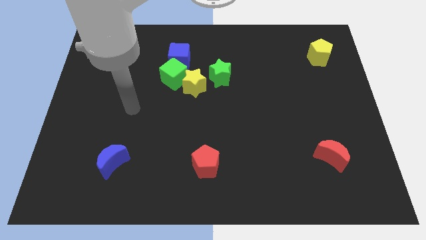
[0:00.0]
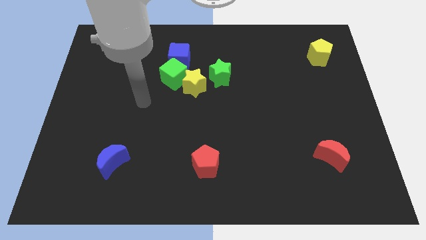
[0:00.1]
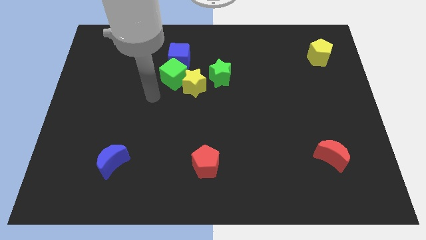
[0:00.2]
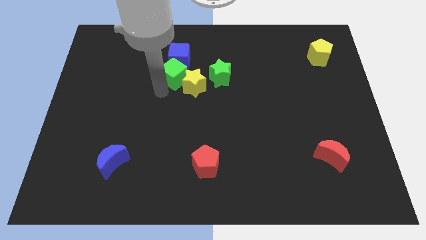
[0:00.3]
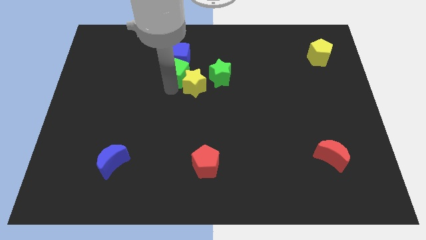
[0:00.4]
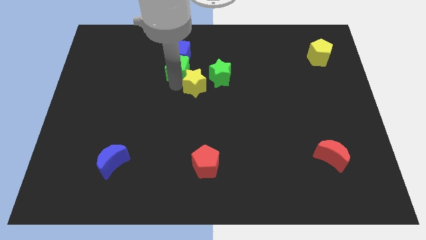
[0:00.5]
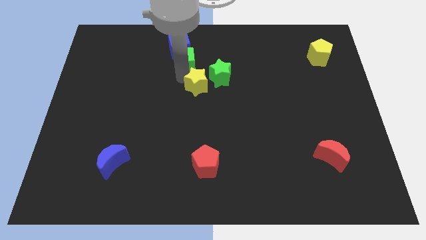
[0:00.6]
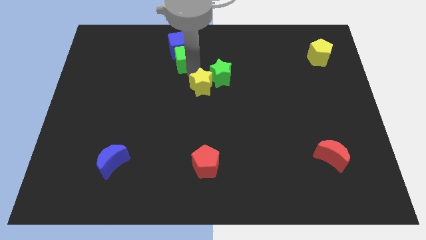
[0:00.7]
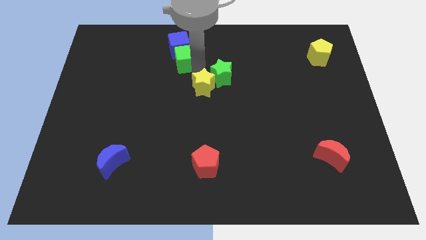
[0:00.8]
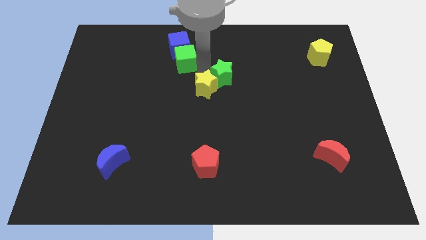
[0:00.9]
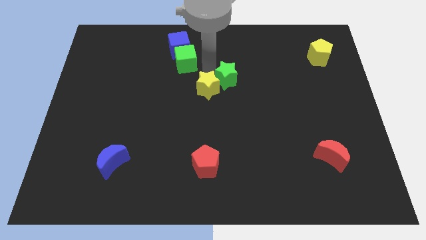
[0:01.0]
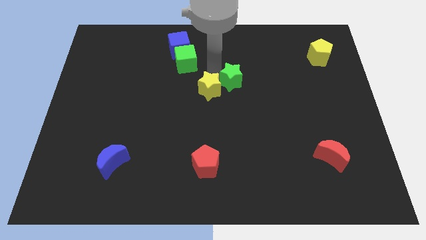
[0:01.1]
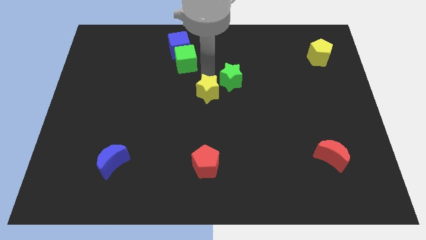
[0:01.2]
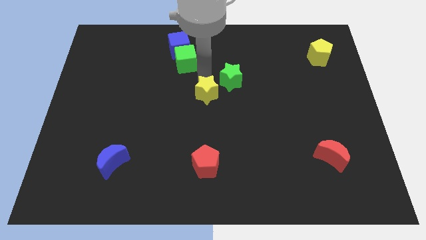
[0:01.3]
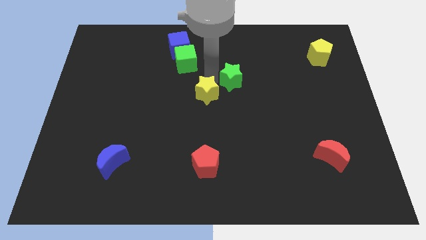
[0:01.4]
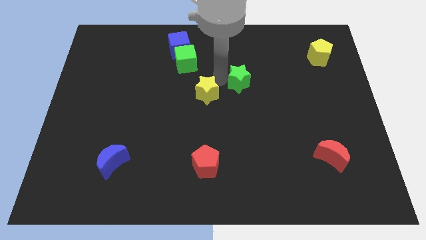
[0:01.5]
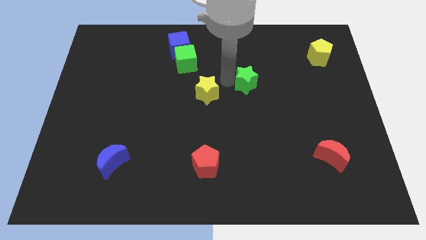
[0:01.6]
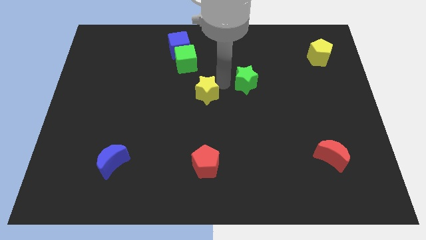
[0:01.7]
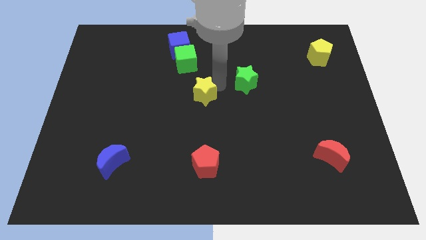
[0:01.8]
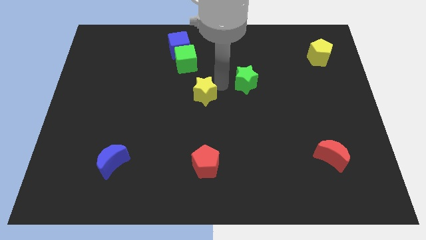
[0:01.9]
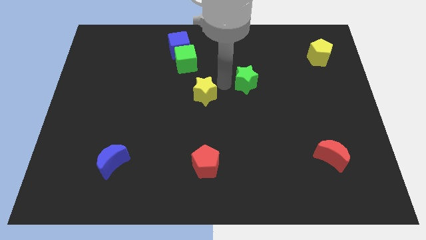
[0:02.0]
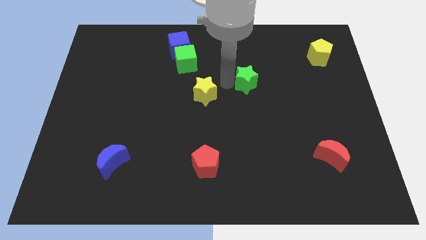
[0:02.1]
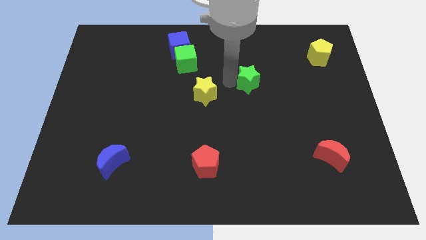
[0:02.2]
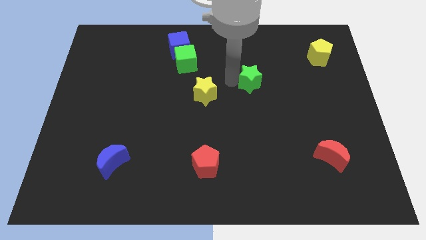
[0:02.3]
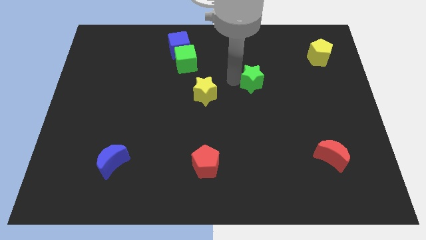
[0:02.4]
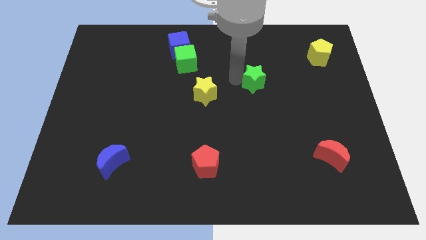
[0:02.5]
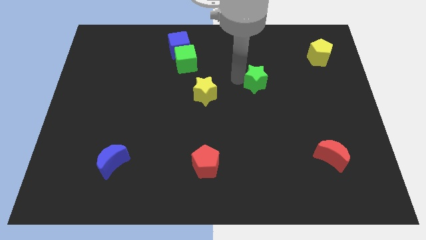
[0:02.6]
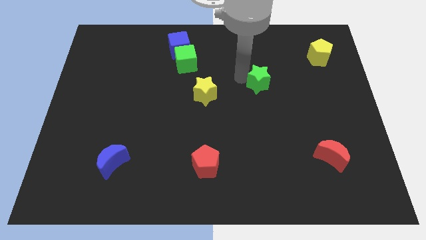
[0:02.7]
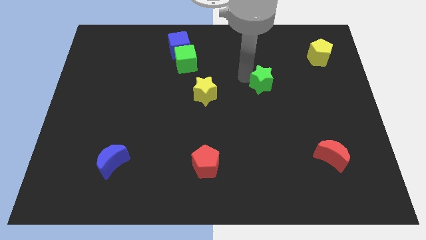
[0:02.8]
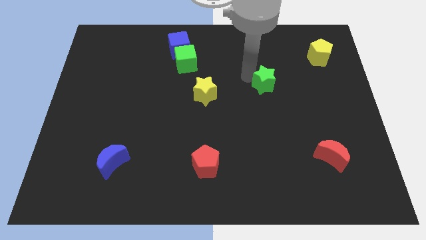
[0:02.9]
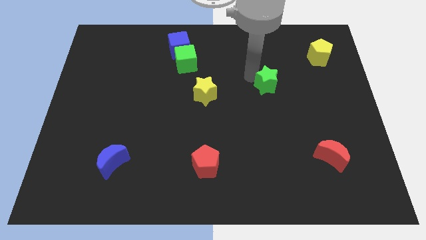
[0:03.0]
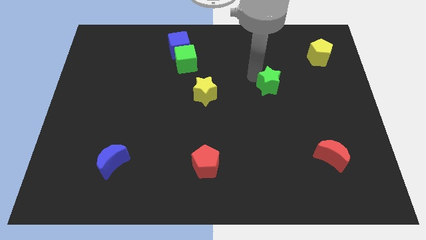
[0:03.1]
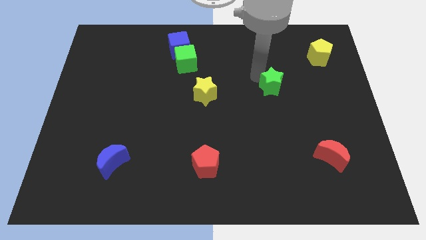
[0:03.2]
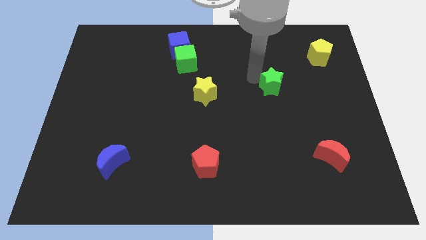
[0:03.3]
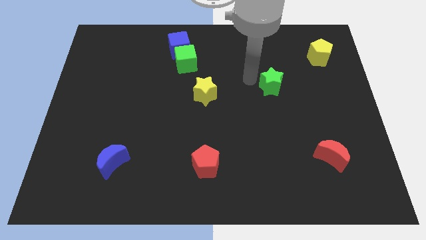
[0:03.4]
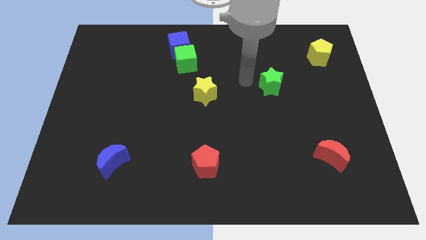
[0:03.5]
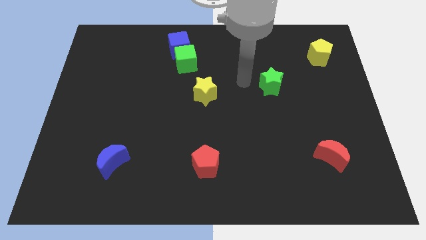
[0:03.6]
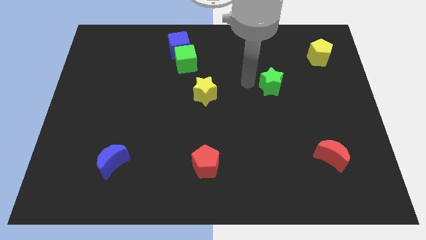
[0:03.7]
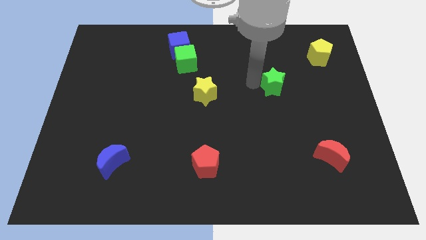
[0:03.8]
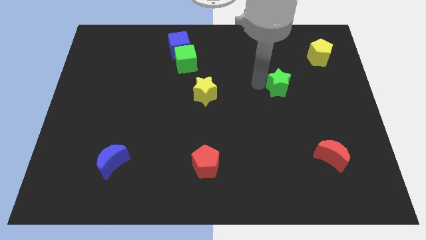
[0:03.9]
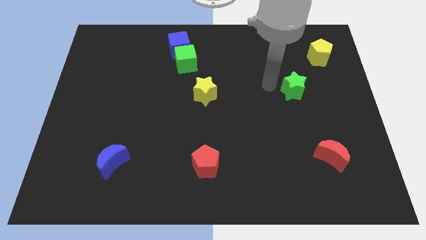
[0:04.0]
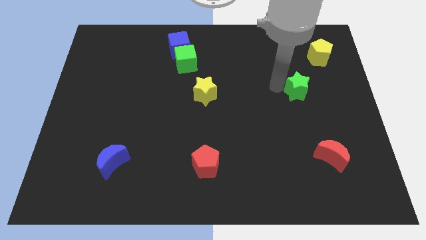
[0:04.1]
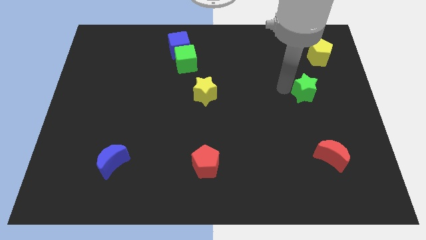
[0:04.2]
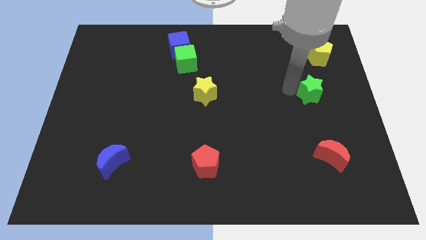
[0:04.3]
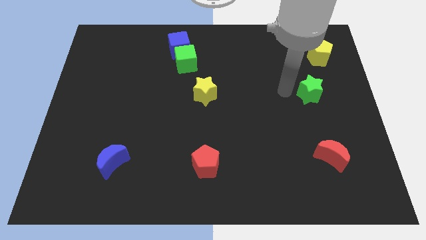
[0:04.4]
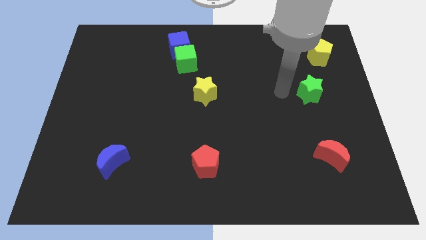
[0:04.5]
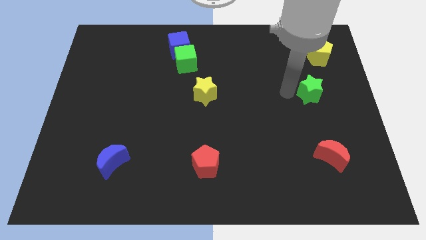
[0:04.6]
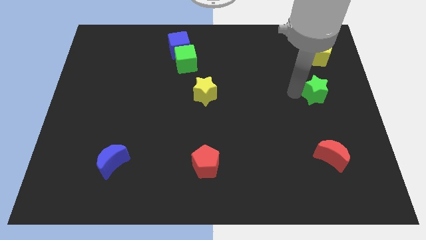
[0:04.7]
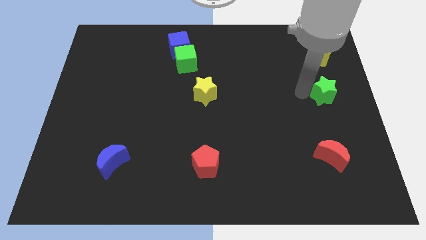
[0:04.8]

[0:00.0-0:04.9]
put the green star to the right side

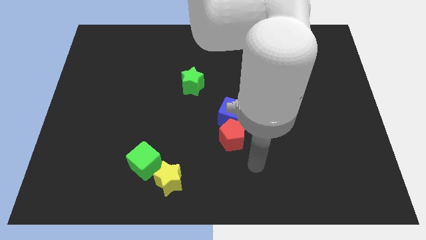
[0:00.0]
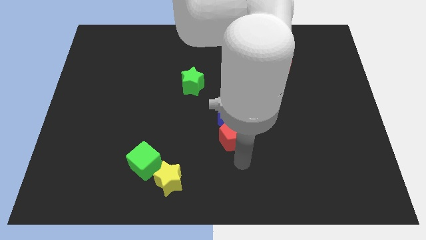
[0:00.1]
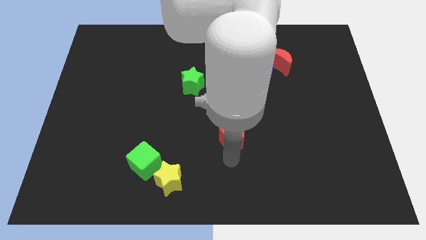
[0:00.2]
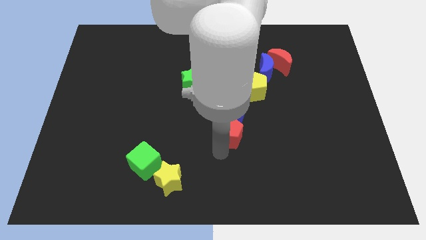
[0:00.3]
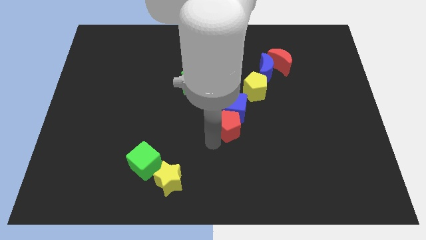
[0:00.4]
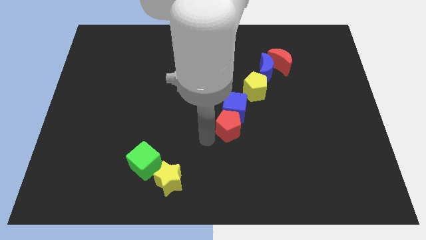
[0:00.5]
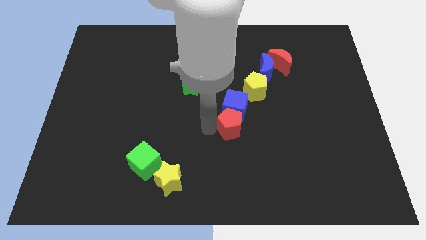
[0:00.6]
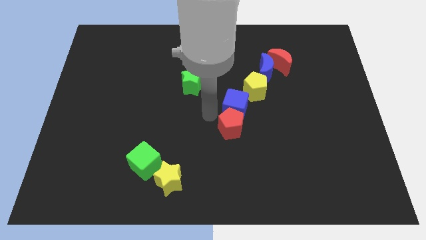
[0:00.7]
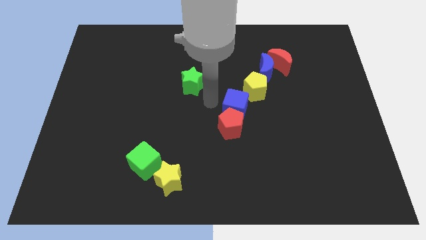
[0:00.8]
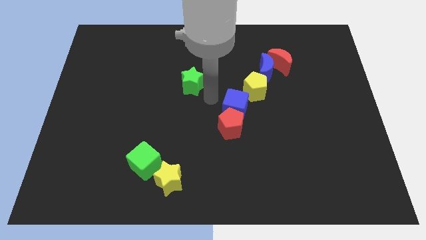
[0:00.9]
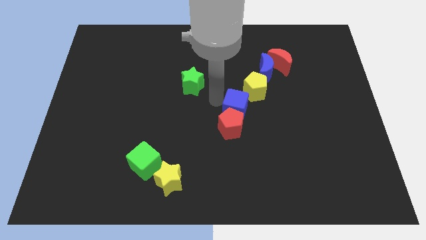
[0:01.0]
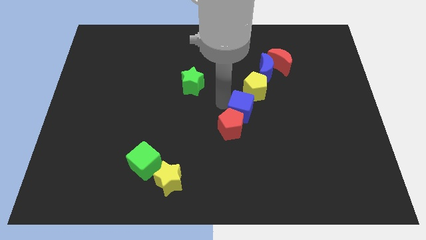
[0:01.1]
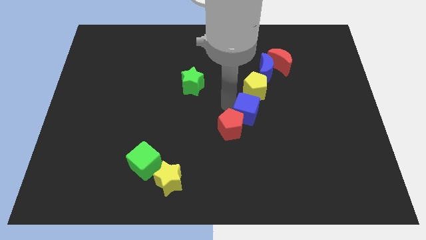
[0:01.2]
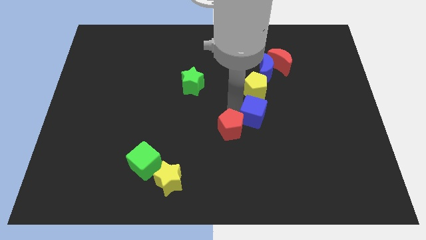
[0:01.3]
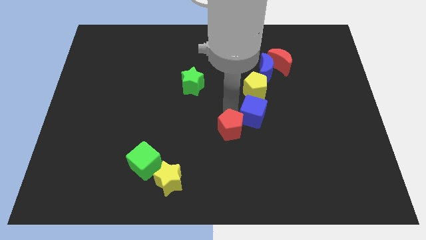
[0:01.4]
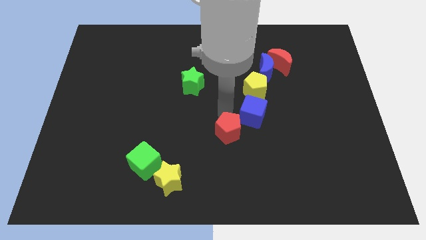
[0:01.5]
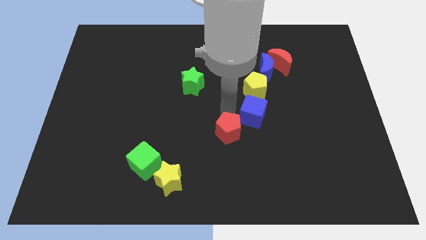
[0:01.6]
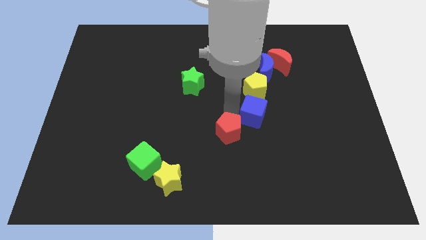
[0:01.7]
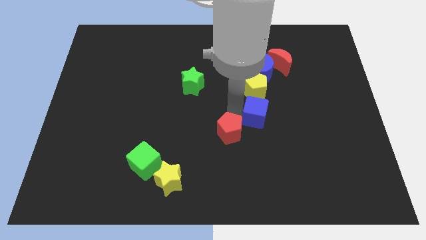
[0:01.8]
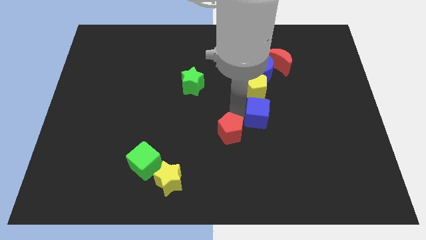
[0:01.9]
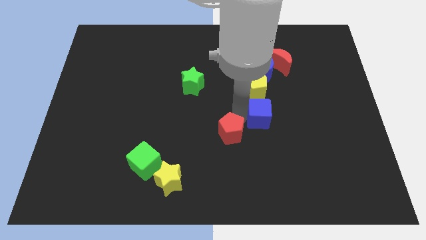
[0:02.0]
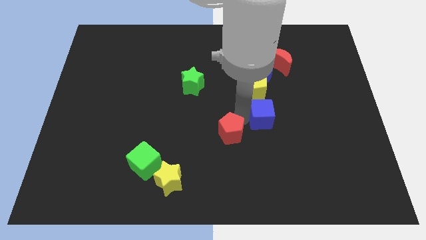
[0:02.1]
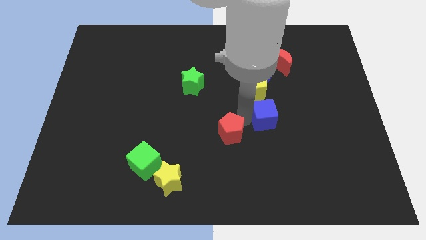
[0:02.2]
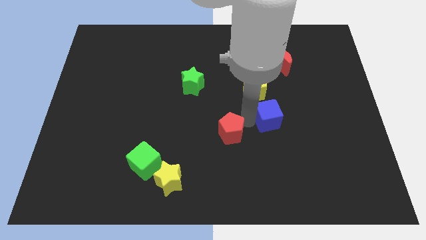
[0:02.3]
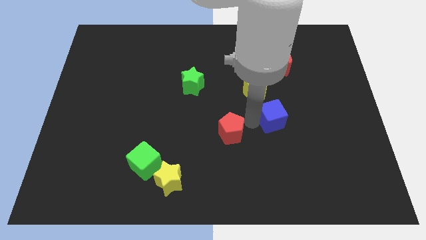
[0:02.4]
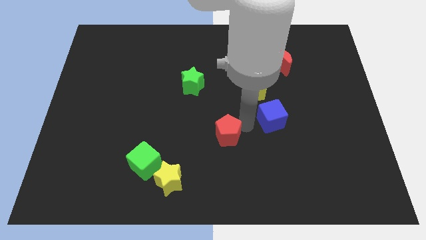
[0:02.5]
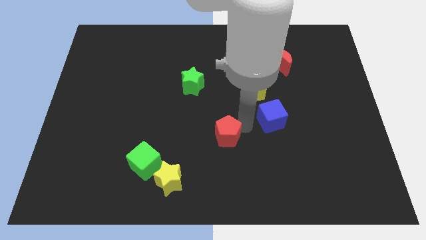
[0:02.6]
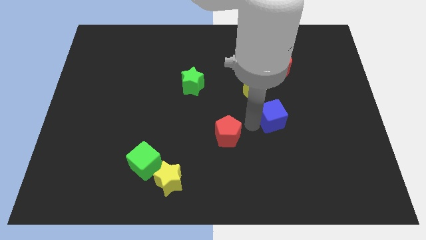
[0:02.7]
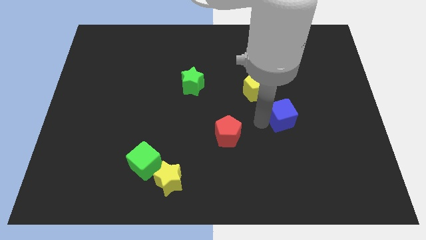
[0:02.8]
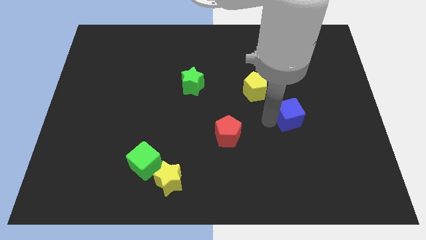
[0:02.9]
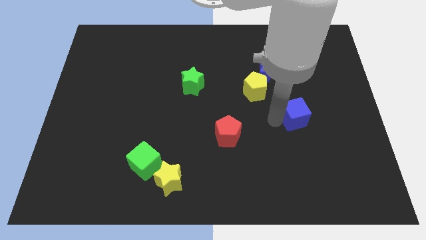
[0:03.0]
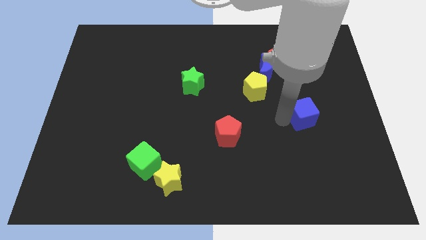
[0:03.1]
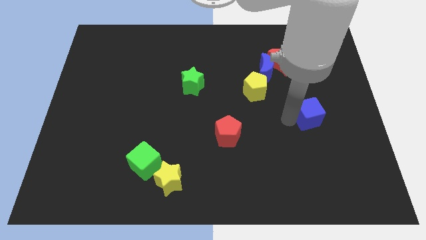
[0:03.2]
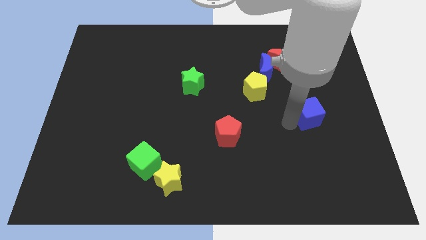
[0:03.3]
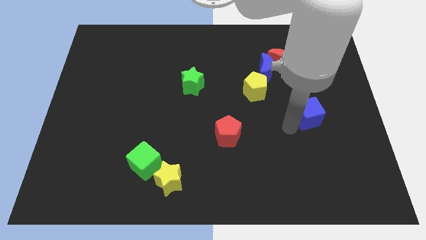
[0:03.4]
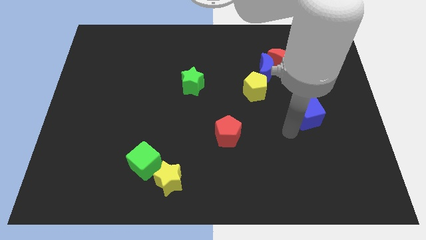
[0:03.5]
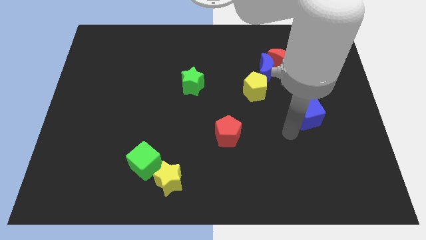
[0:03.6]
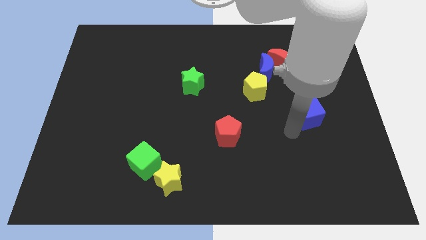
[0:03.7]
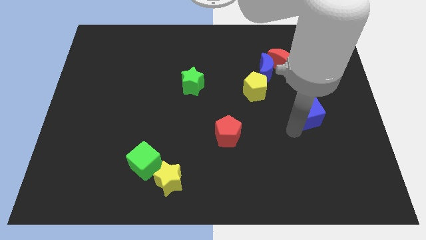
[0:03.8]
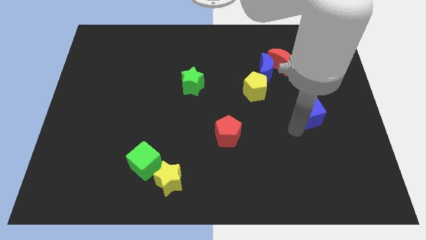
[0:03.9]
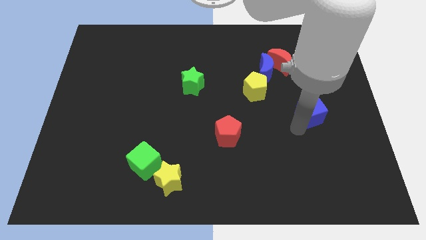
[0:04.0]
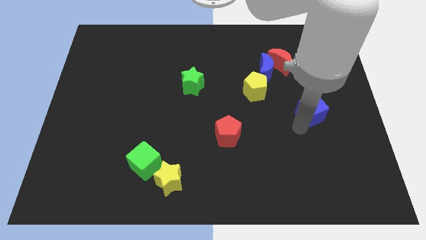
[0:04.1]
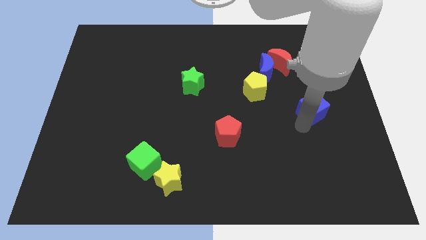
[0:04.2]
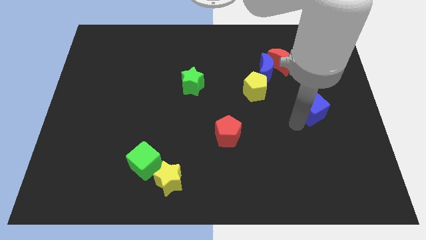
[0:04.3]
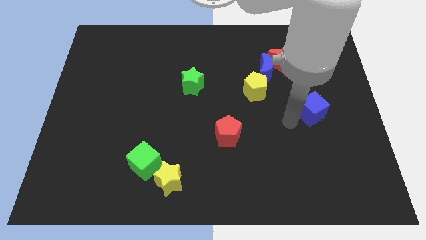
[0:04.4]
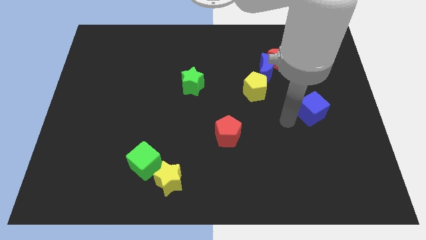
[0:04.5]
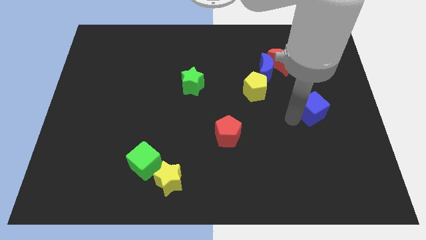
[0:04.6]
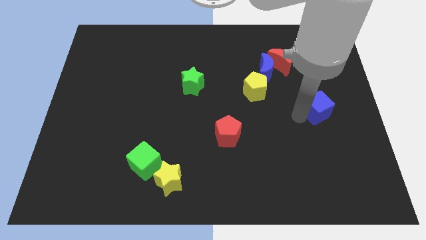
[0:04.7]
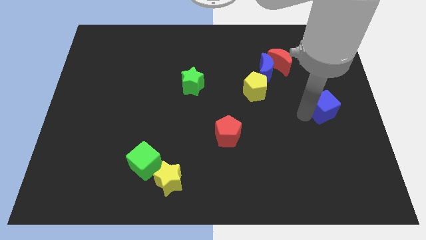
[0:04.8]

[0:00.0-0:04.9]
put the blue cube to the right side of the board
